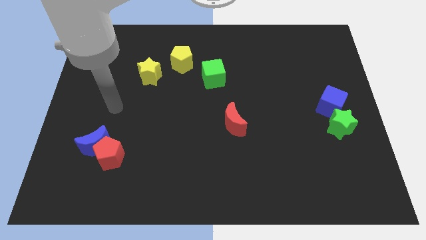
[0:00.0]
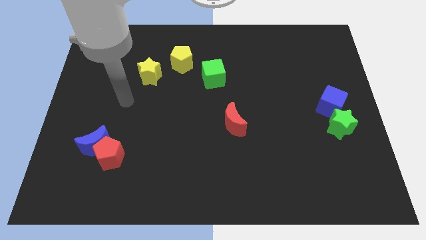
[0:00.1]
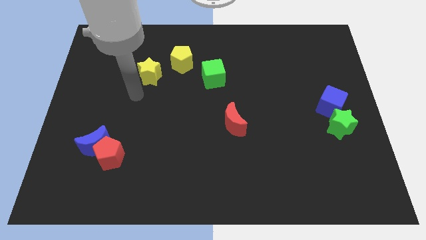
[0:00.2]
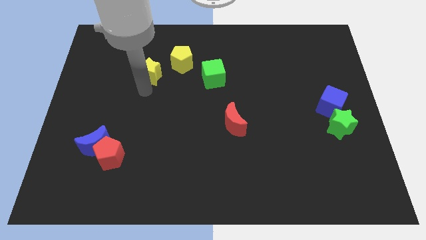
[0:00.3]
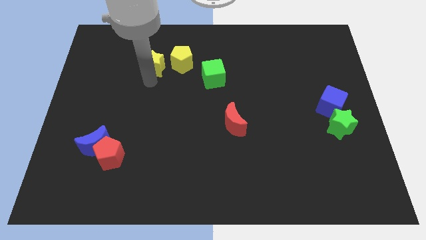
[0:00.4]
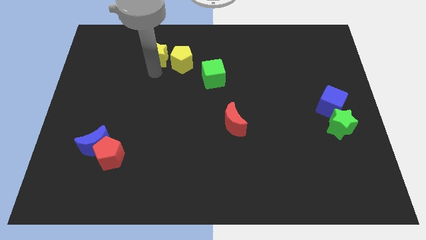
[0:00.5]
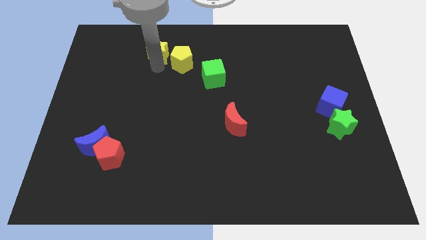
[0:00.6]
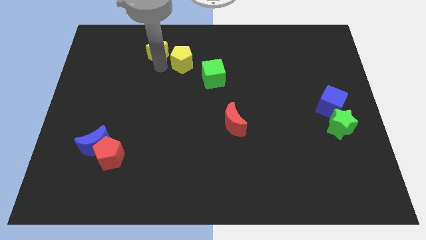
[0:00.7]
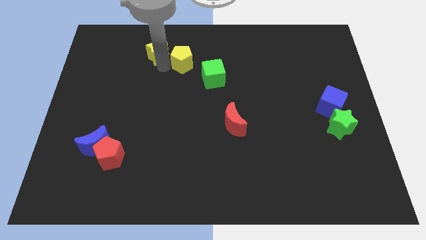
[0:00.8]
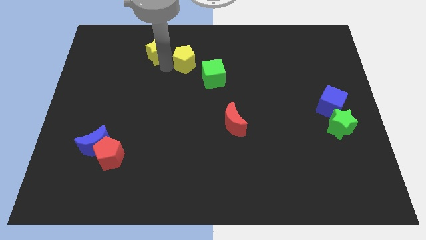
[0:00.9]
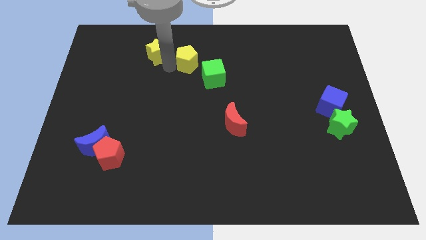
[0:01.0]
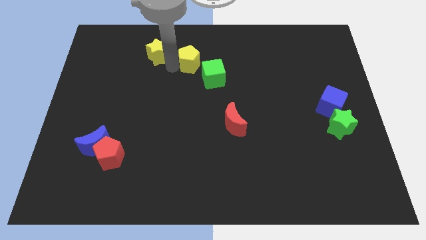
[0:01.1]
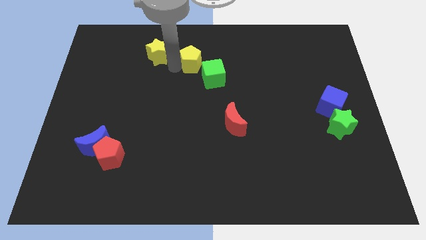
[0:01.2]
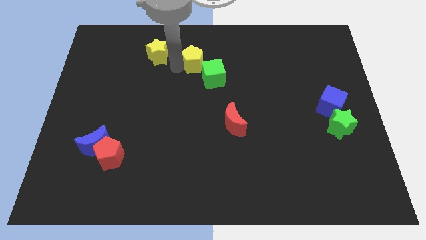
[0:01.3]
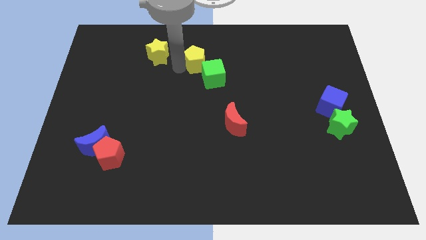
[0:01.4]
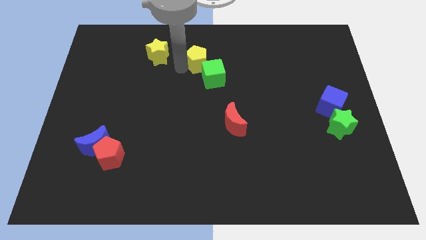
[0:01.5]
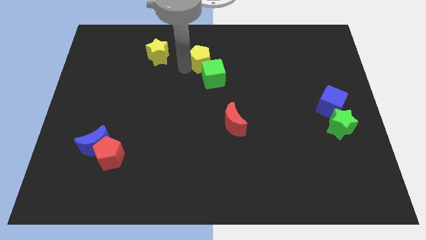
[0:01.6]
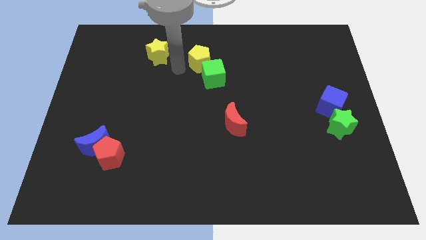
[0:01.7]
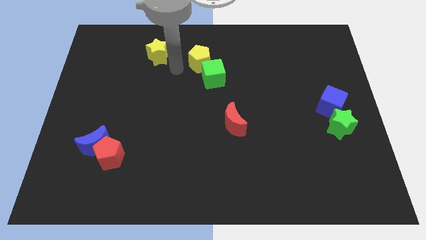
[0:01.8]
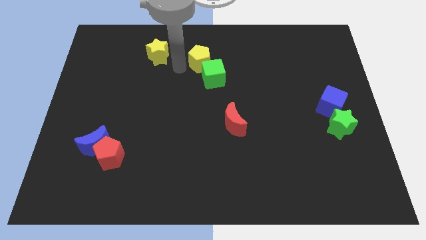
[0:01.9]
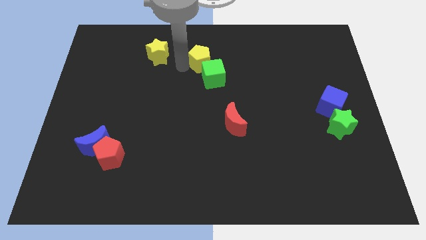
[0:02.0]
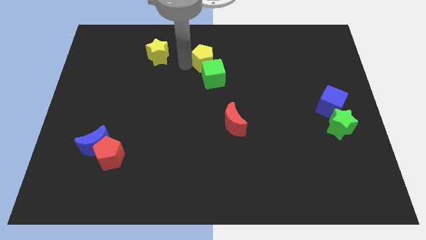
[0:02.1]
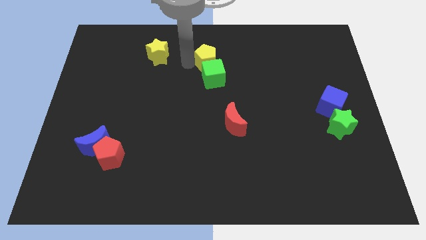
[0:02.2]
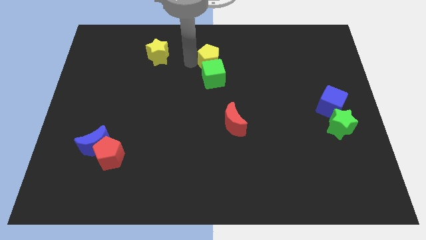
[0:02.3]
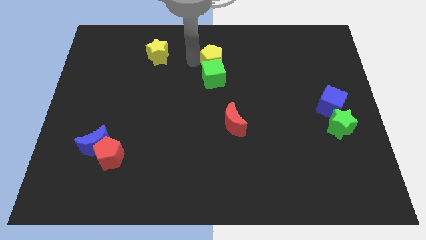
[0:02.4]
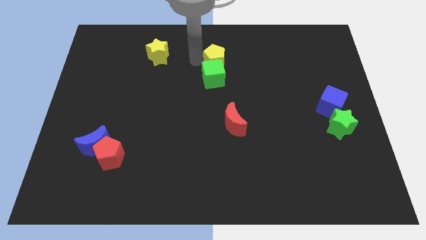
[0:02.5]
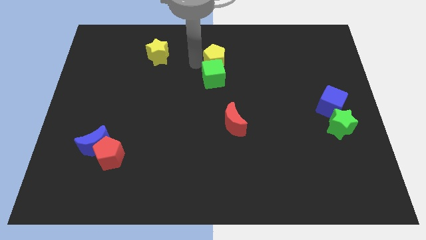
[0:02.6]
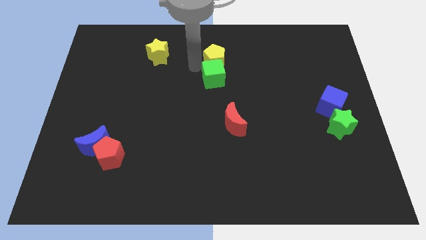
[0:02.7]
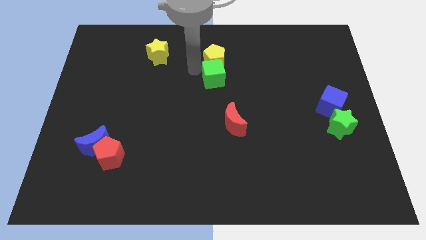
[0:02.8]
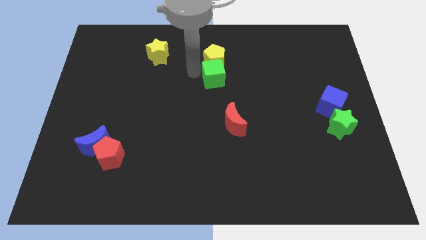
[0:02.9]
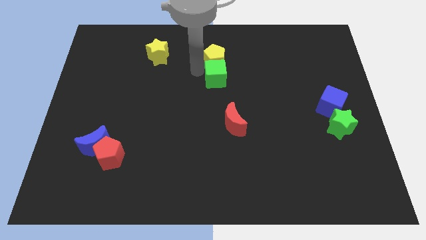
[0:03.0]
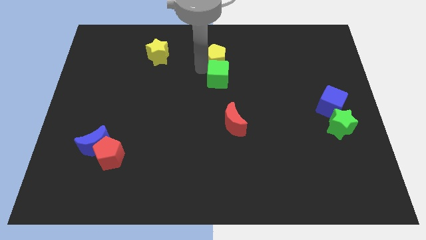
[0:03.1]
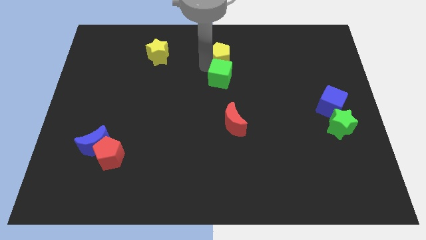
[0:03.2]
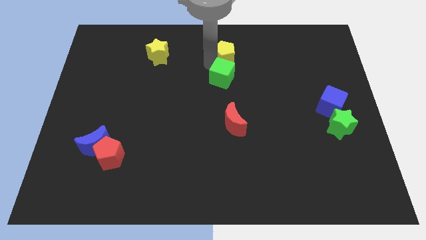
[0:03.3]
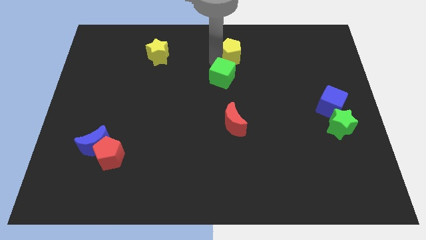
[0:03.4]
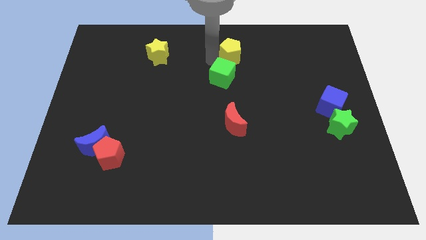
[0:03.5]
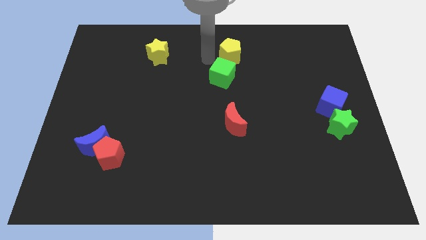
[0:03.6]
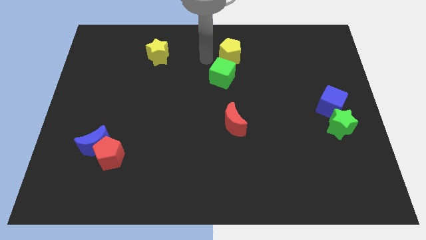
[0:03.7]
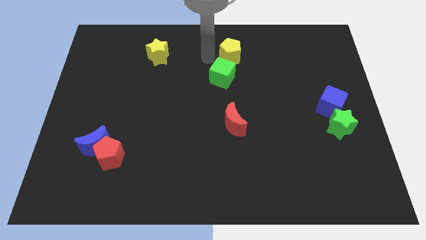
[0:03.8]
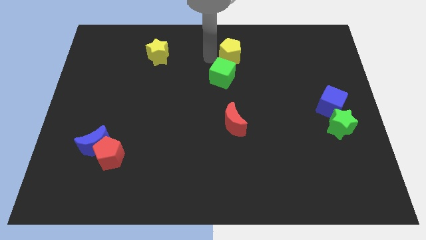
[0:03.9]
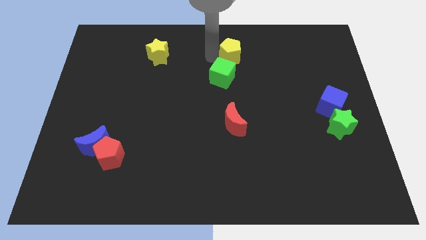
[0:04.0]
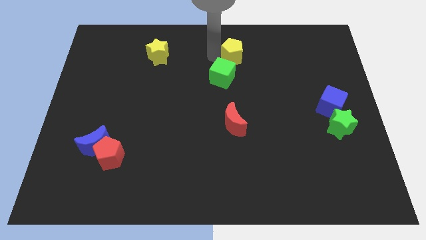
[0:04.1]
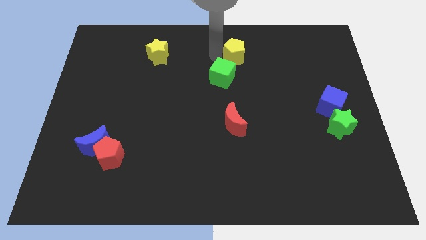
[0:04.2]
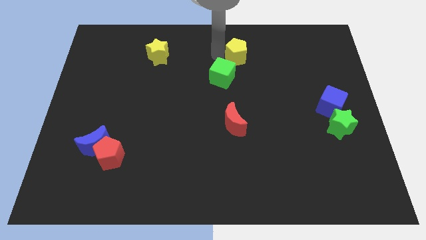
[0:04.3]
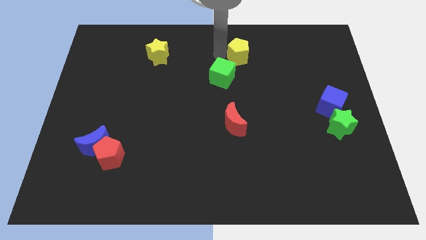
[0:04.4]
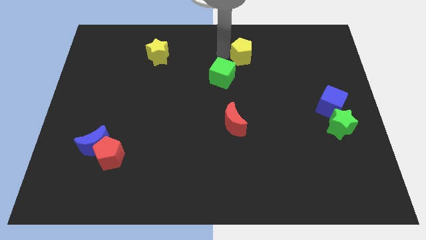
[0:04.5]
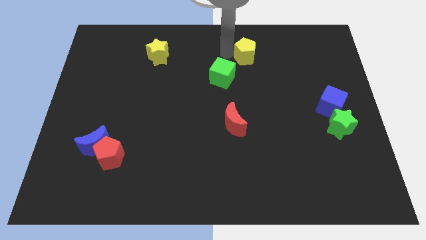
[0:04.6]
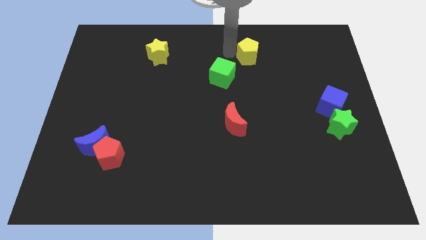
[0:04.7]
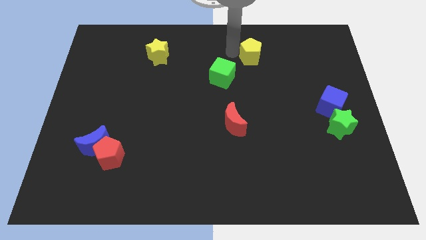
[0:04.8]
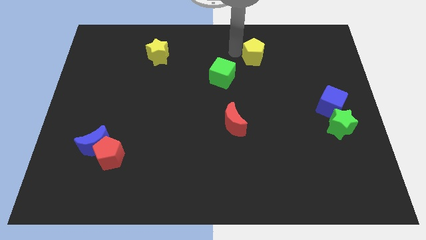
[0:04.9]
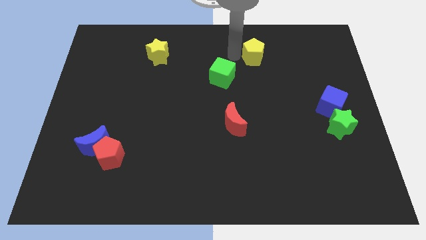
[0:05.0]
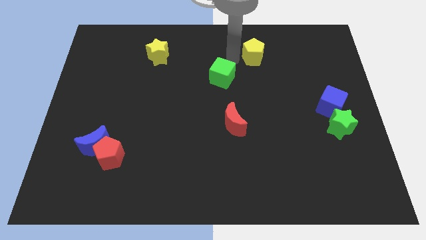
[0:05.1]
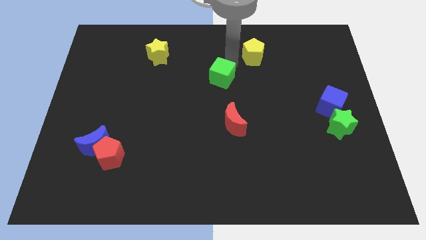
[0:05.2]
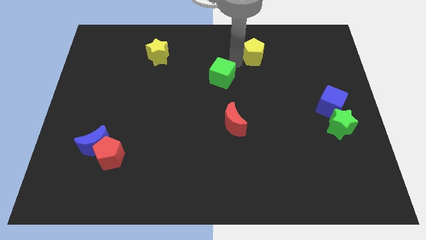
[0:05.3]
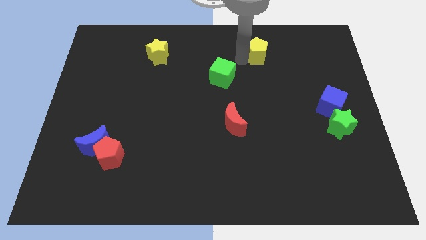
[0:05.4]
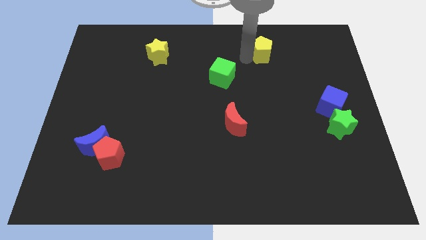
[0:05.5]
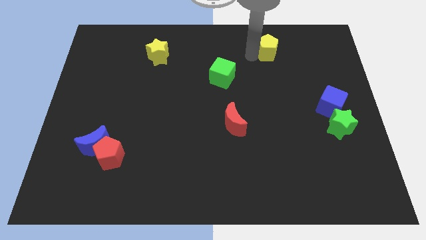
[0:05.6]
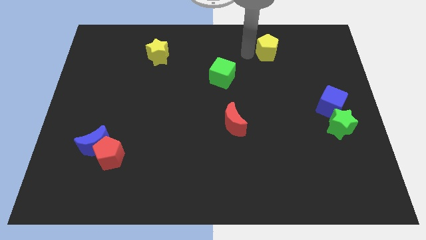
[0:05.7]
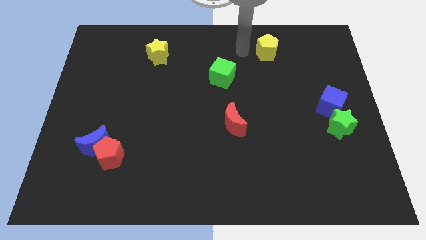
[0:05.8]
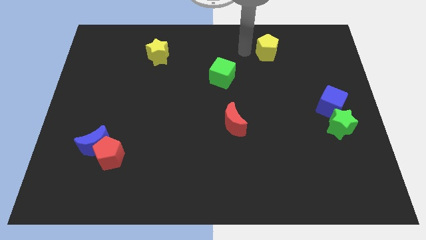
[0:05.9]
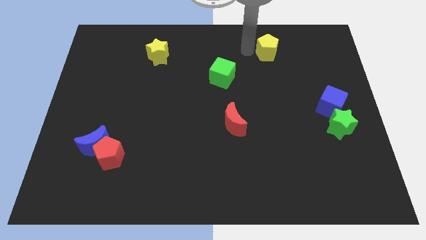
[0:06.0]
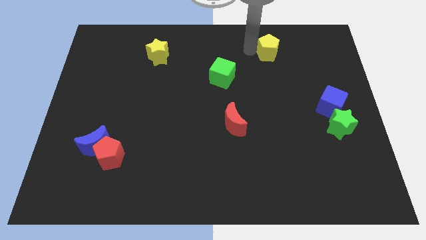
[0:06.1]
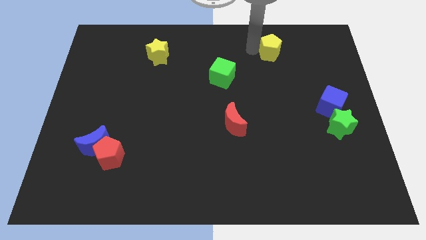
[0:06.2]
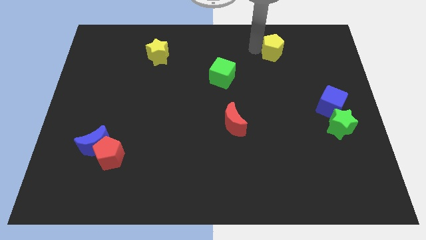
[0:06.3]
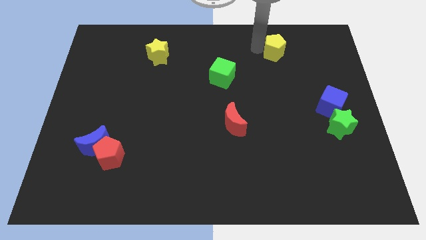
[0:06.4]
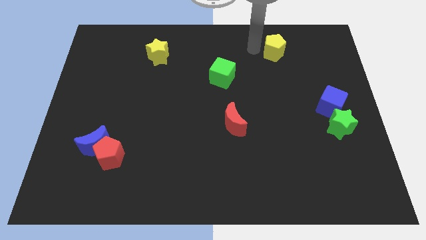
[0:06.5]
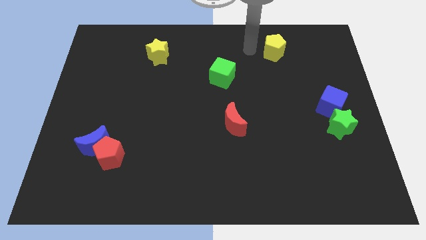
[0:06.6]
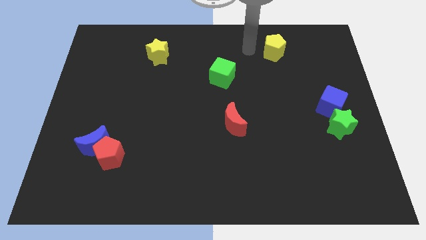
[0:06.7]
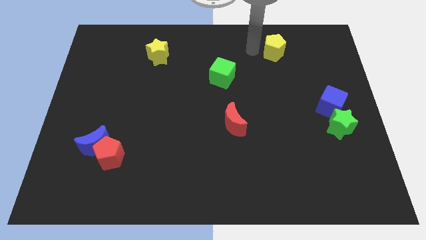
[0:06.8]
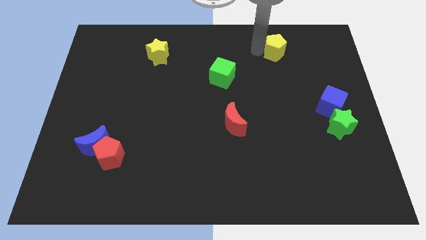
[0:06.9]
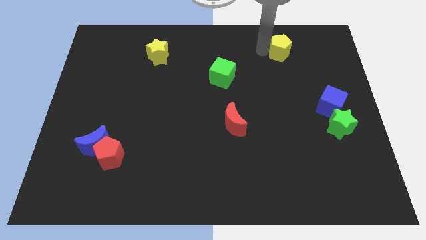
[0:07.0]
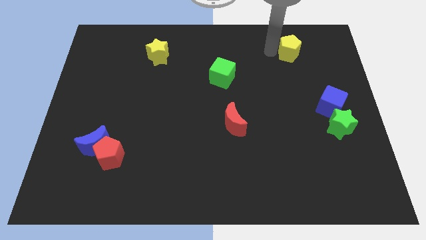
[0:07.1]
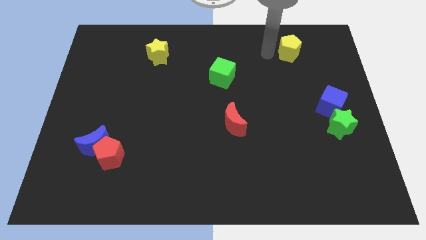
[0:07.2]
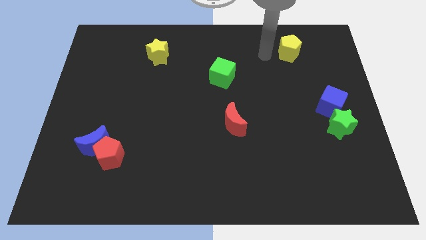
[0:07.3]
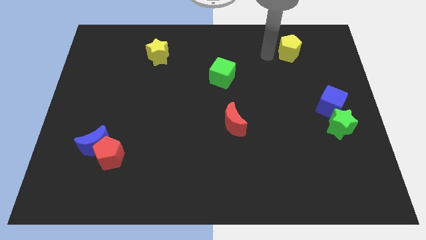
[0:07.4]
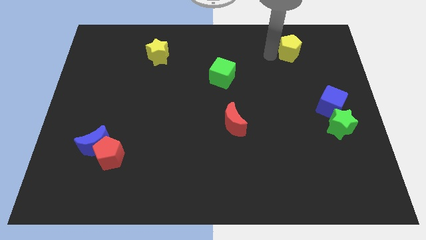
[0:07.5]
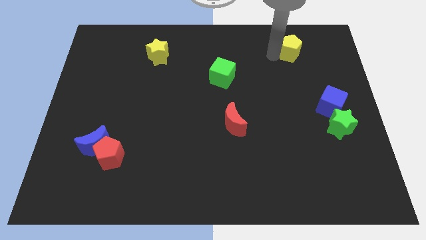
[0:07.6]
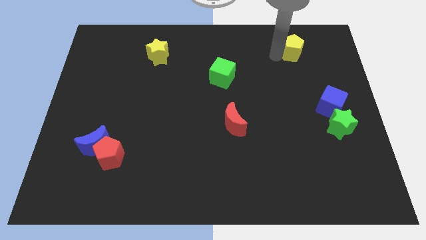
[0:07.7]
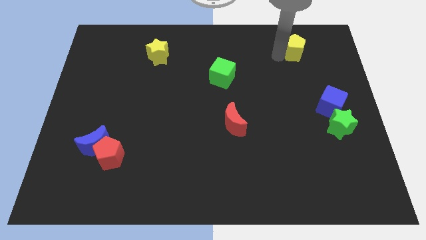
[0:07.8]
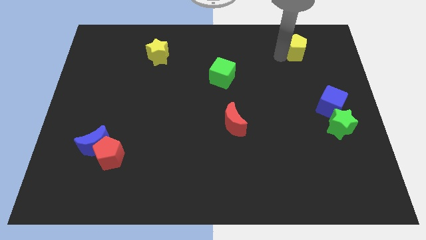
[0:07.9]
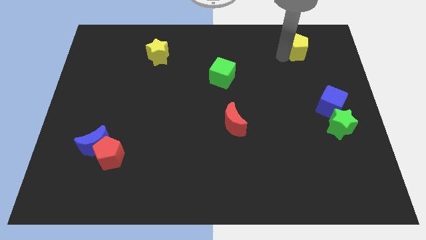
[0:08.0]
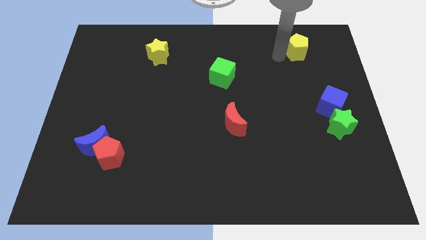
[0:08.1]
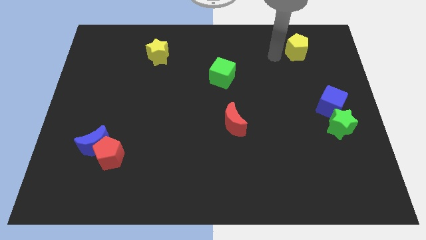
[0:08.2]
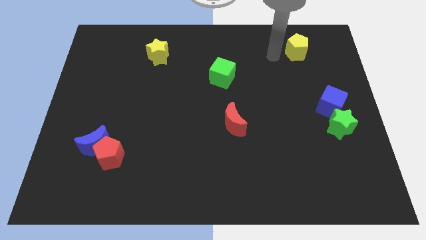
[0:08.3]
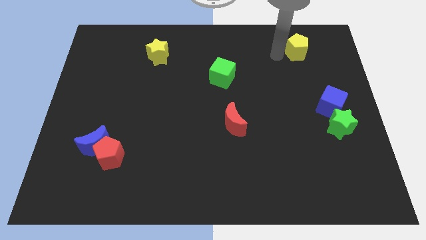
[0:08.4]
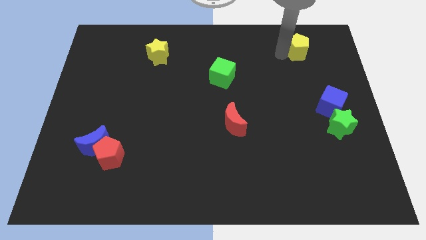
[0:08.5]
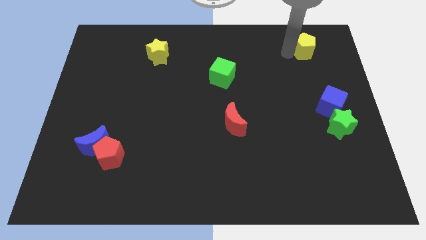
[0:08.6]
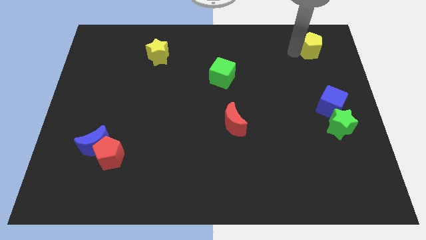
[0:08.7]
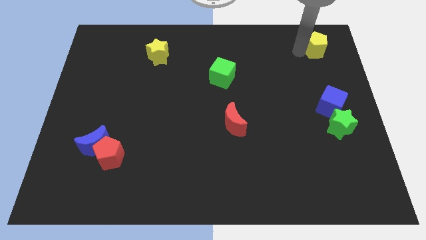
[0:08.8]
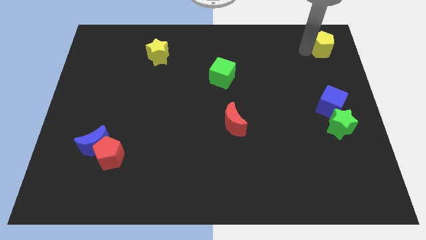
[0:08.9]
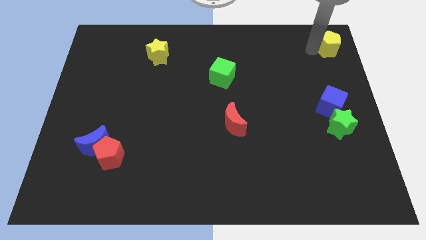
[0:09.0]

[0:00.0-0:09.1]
push the yellow pentagon to the top right corner
